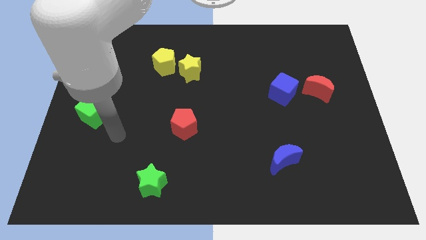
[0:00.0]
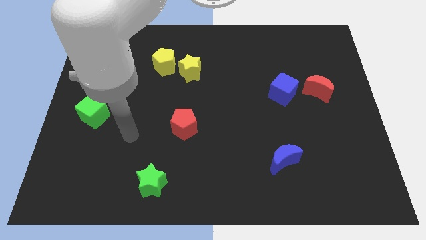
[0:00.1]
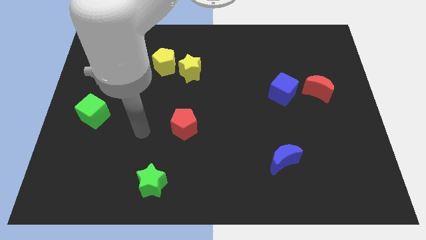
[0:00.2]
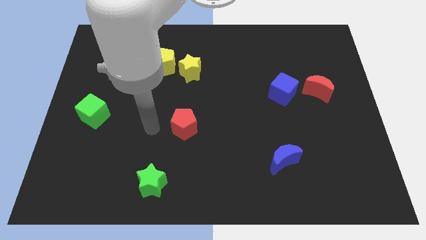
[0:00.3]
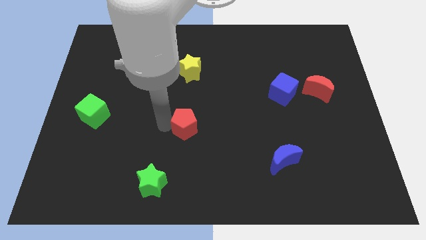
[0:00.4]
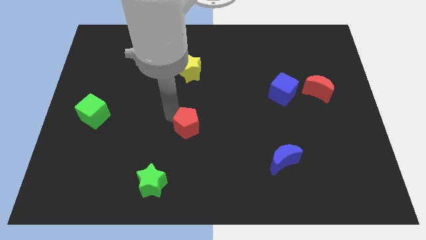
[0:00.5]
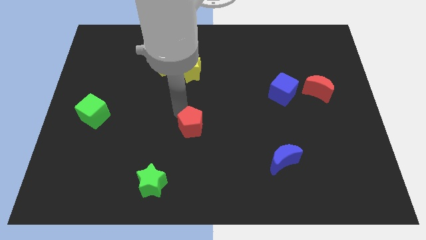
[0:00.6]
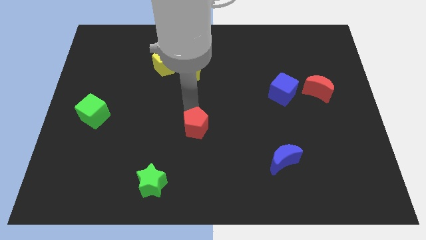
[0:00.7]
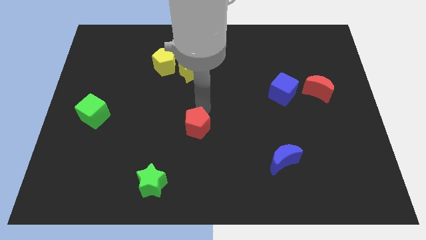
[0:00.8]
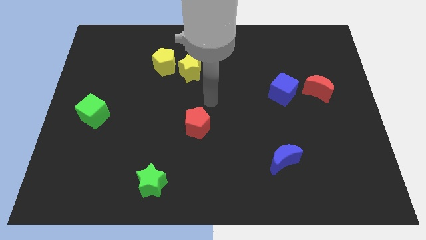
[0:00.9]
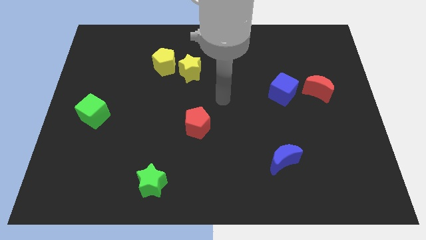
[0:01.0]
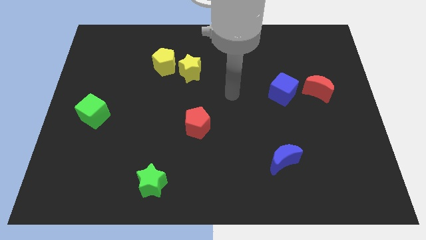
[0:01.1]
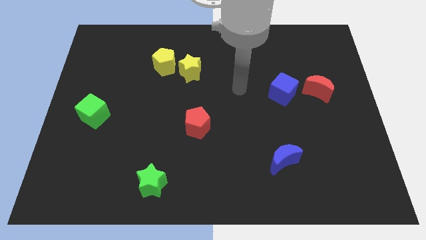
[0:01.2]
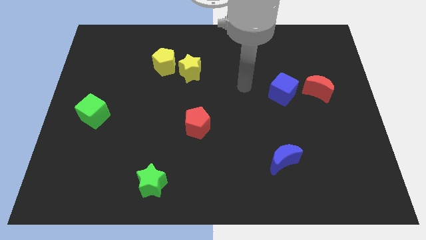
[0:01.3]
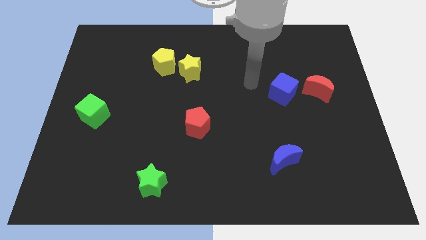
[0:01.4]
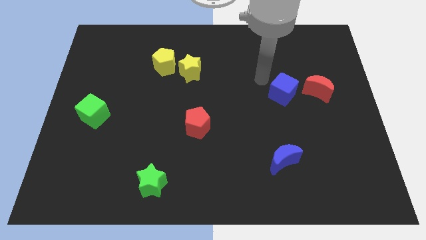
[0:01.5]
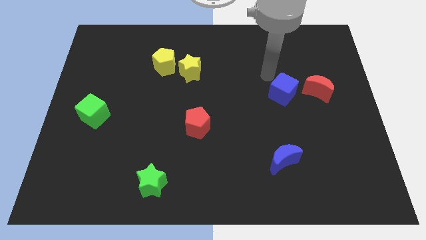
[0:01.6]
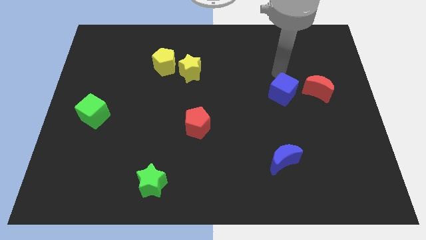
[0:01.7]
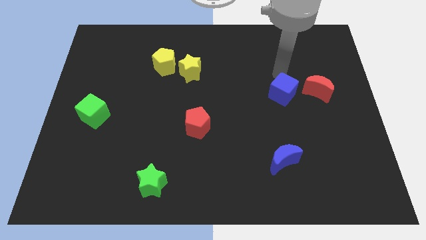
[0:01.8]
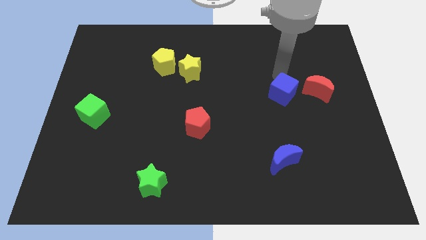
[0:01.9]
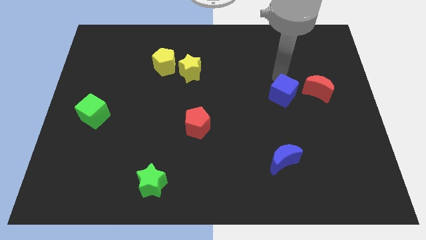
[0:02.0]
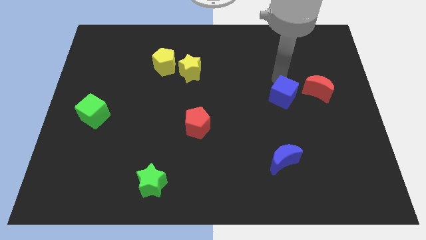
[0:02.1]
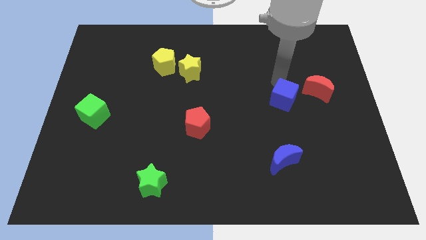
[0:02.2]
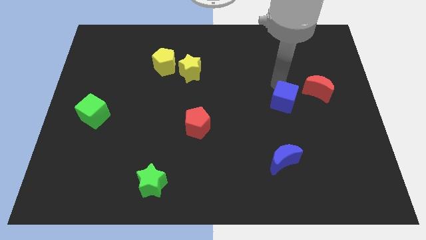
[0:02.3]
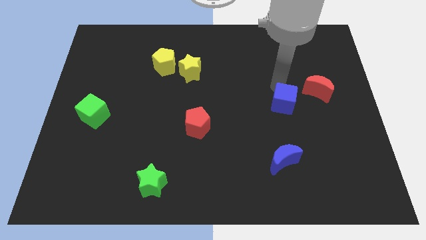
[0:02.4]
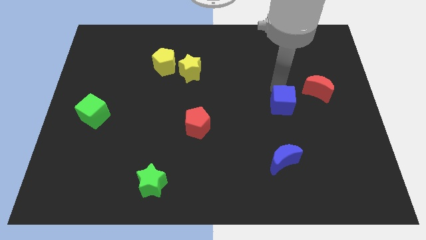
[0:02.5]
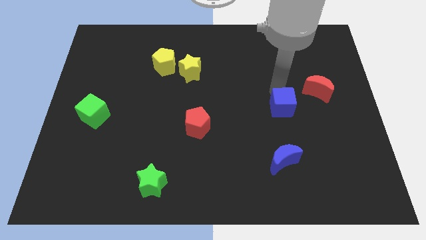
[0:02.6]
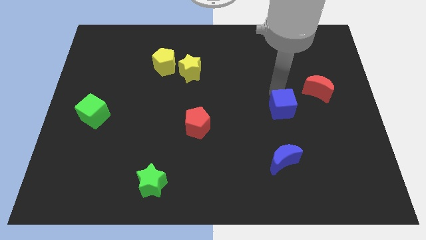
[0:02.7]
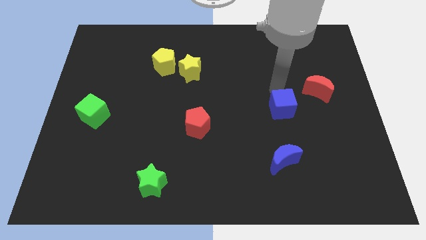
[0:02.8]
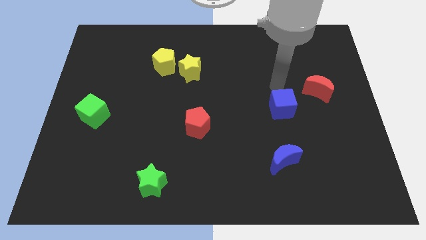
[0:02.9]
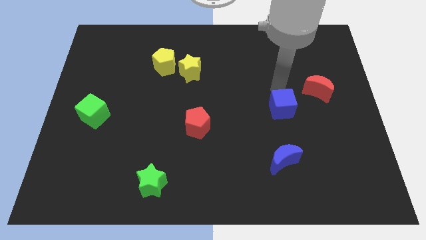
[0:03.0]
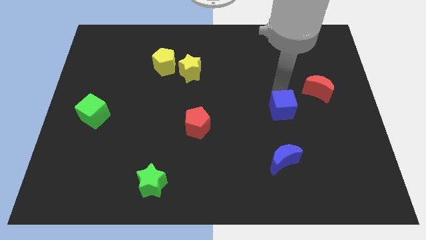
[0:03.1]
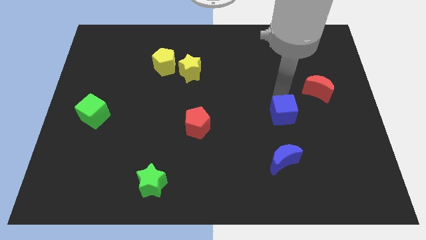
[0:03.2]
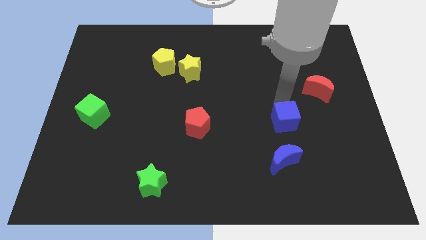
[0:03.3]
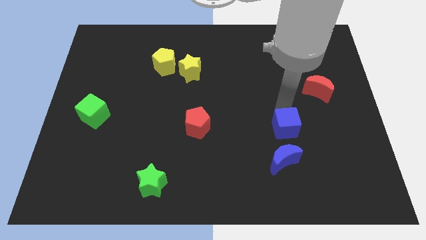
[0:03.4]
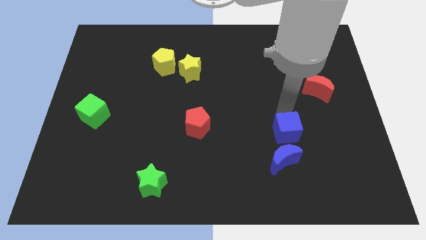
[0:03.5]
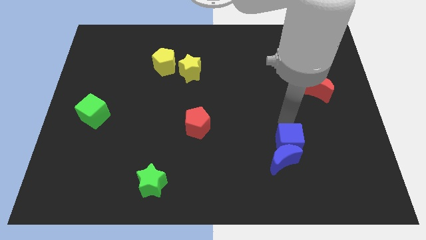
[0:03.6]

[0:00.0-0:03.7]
put the blue cube close to the blue moon

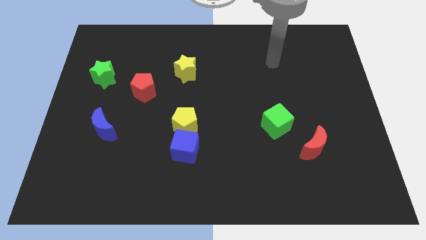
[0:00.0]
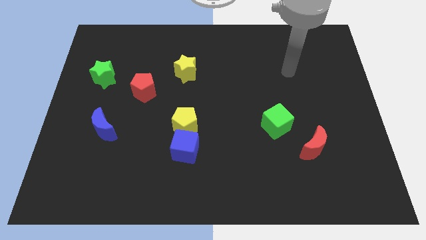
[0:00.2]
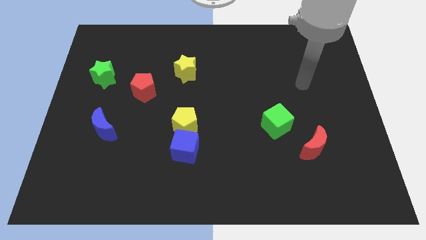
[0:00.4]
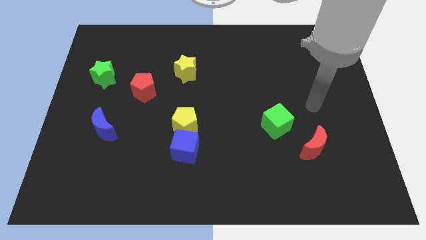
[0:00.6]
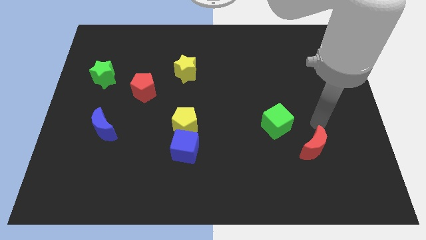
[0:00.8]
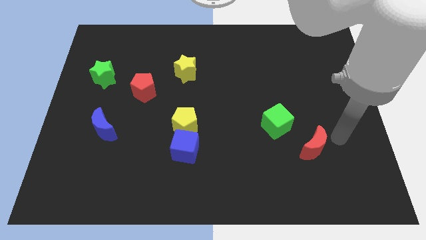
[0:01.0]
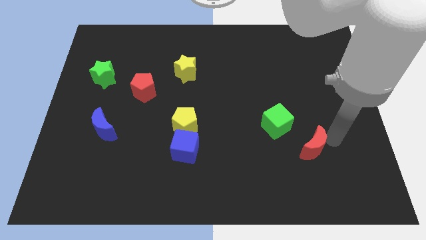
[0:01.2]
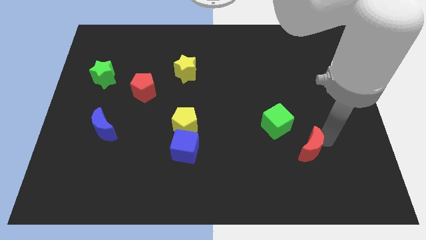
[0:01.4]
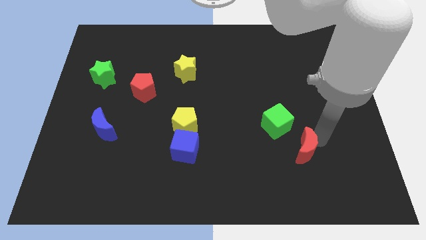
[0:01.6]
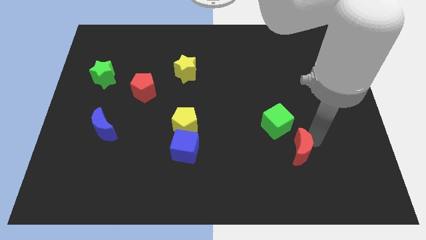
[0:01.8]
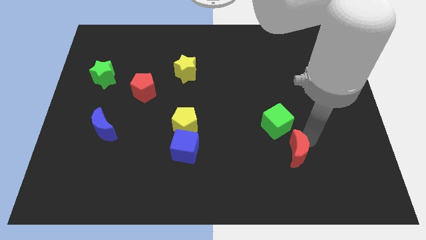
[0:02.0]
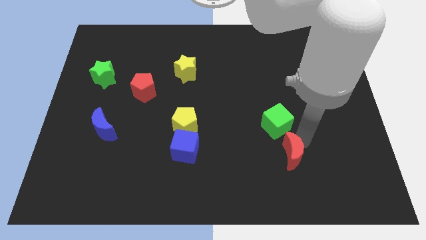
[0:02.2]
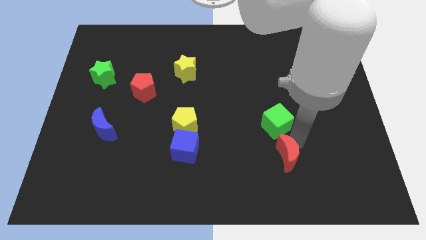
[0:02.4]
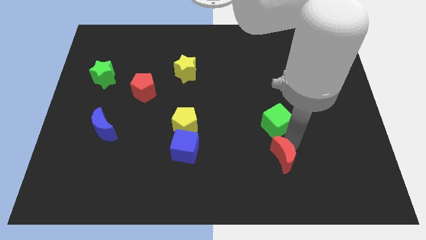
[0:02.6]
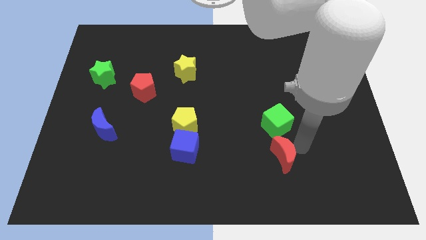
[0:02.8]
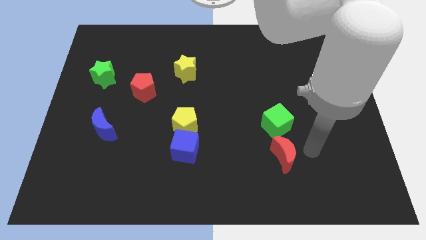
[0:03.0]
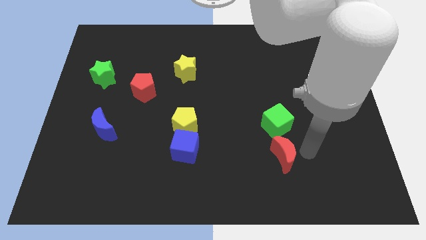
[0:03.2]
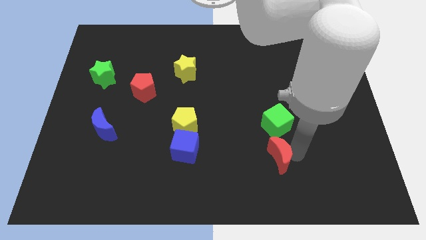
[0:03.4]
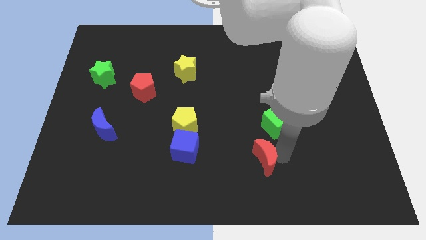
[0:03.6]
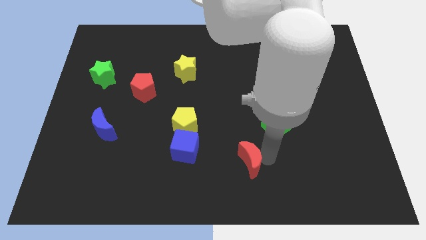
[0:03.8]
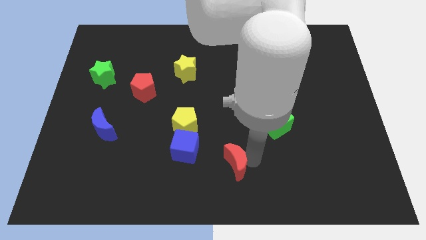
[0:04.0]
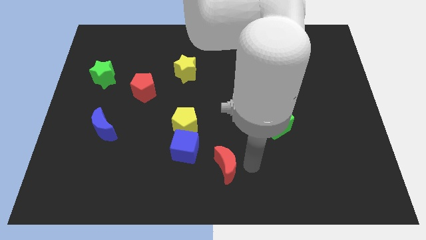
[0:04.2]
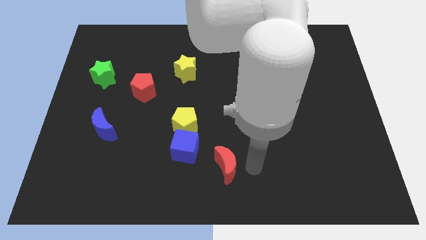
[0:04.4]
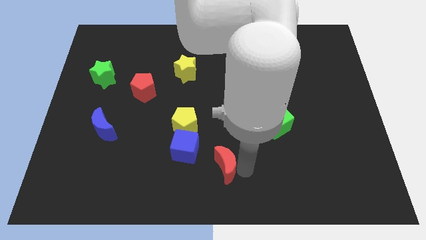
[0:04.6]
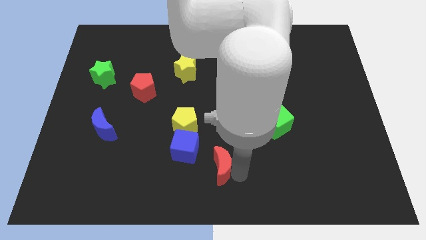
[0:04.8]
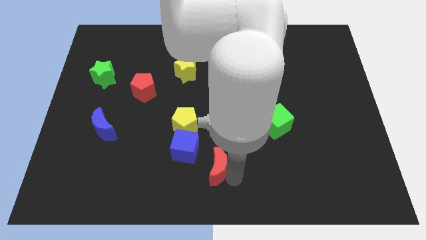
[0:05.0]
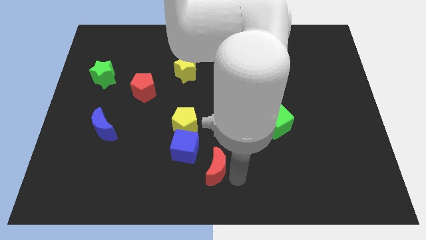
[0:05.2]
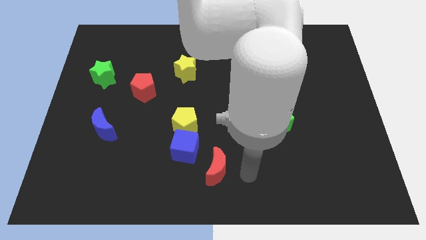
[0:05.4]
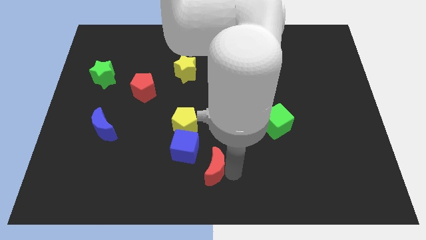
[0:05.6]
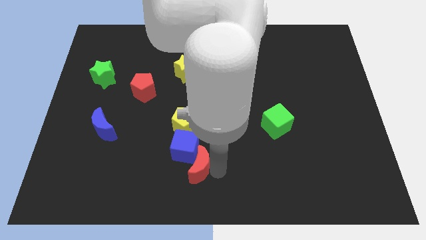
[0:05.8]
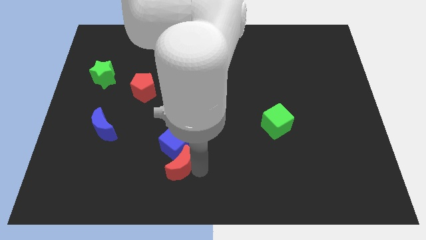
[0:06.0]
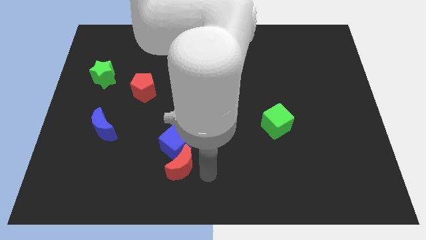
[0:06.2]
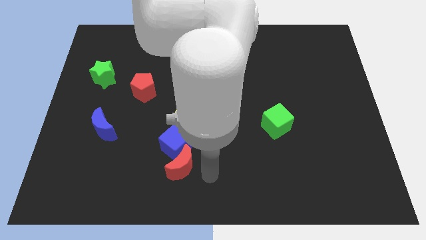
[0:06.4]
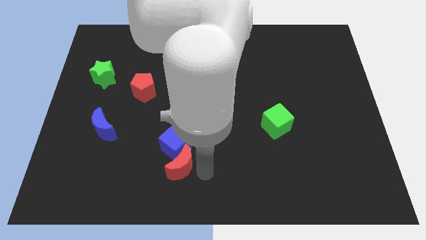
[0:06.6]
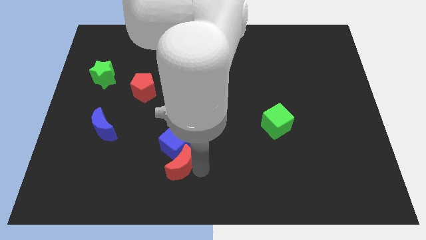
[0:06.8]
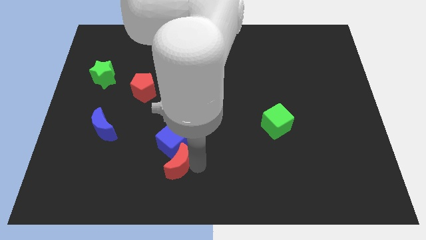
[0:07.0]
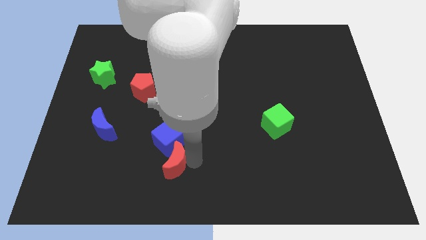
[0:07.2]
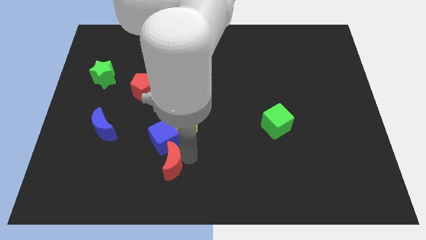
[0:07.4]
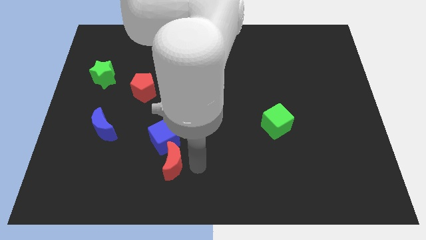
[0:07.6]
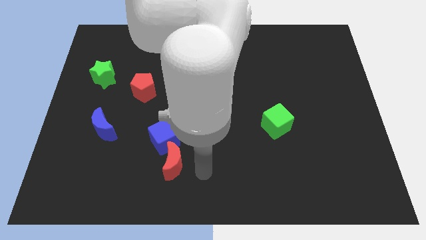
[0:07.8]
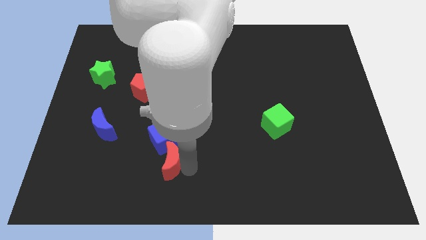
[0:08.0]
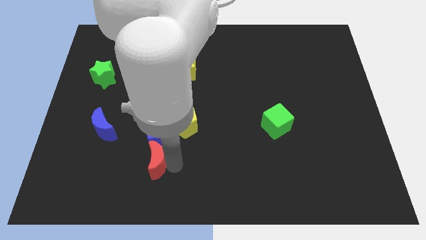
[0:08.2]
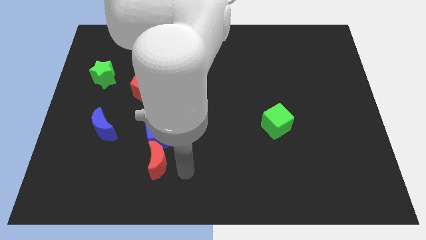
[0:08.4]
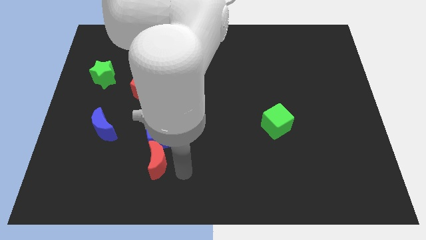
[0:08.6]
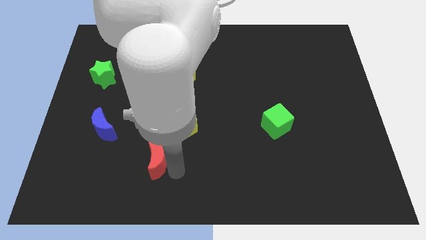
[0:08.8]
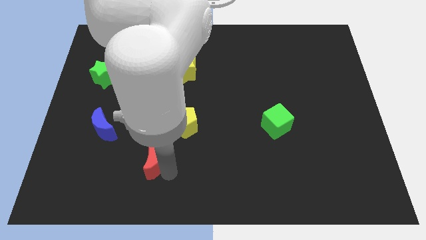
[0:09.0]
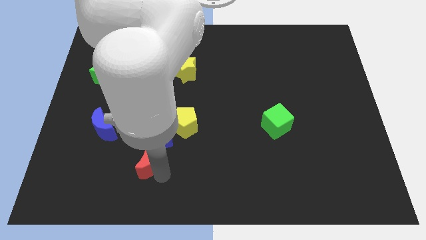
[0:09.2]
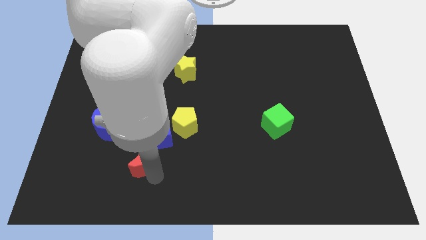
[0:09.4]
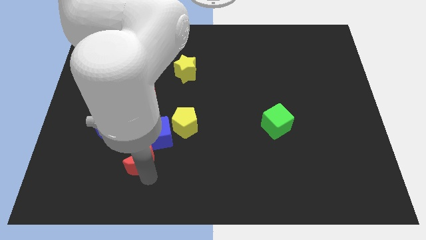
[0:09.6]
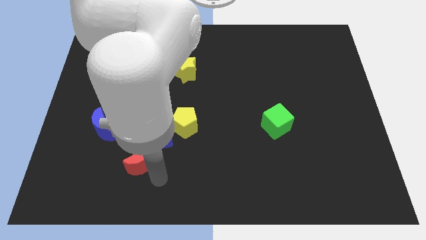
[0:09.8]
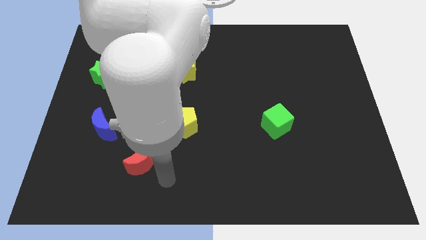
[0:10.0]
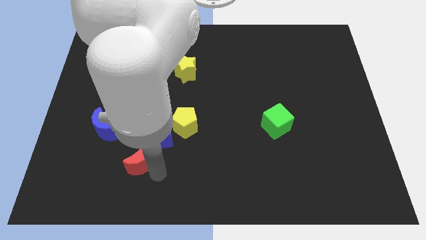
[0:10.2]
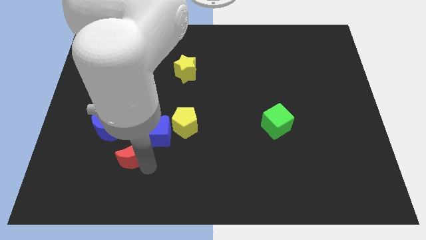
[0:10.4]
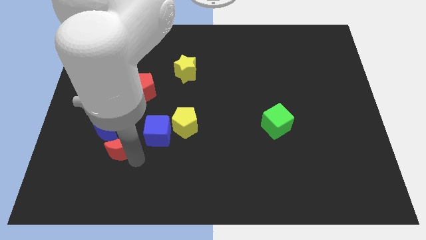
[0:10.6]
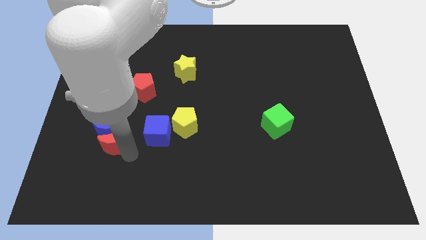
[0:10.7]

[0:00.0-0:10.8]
slide the red moon next to the blue moon
